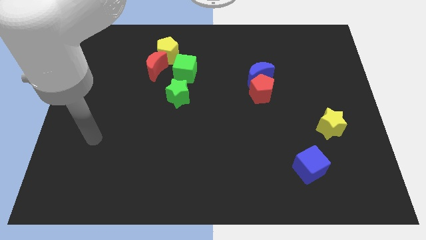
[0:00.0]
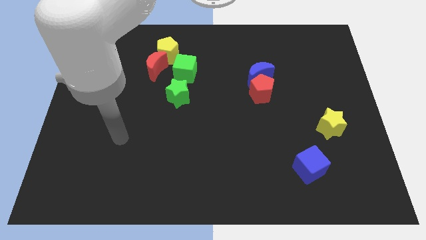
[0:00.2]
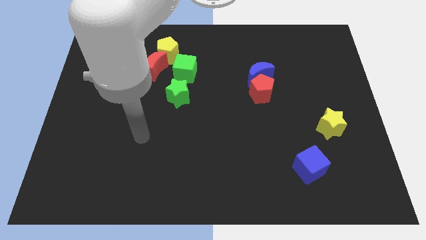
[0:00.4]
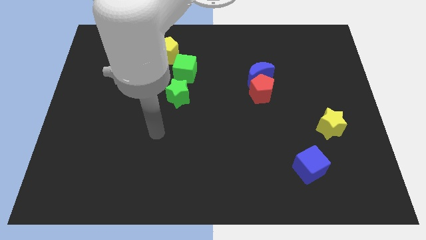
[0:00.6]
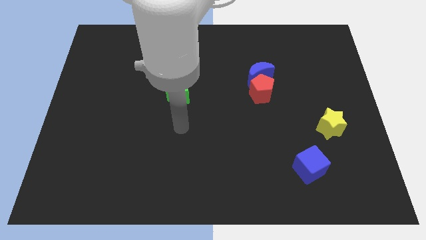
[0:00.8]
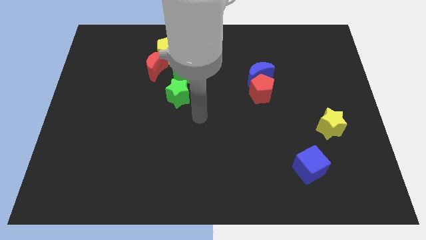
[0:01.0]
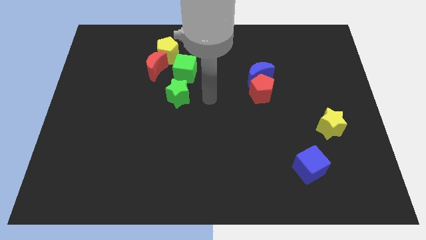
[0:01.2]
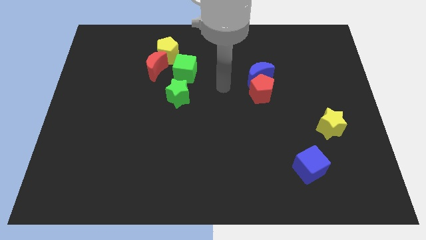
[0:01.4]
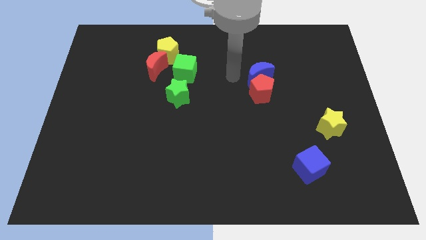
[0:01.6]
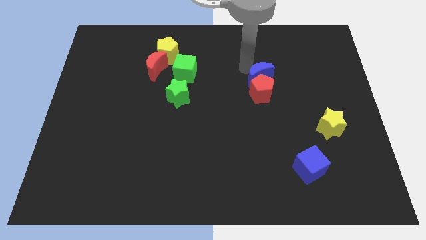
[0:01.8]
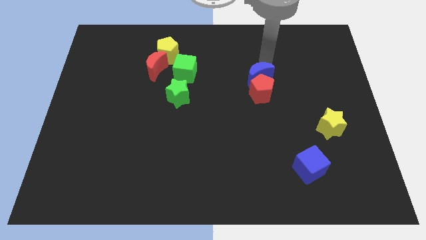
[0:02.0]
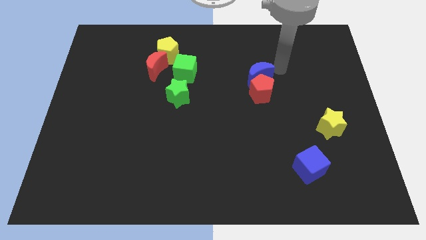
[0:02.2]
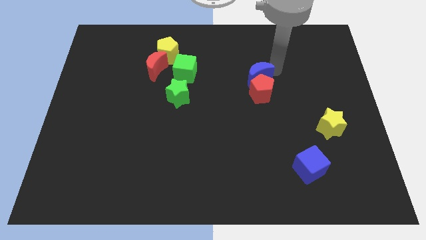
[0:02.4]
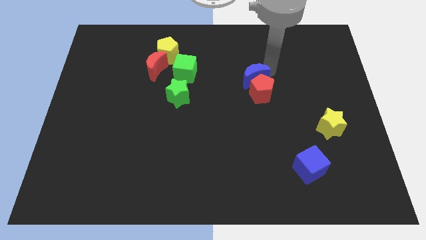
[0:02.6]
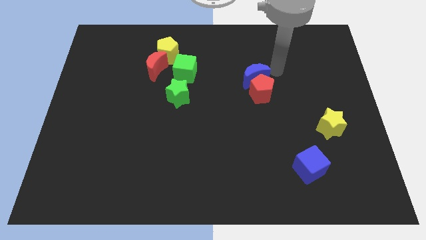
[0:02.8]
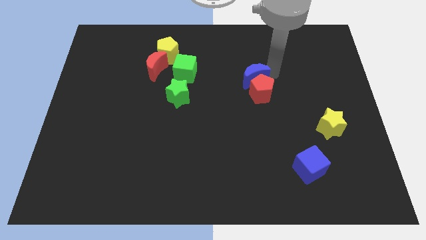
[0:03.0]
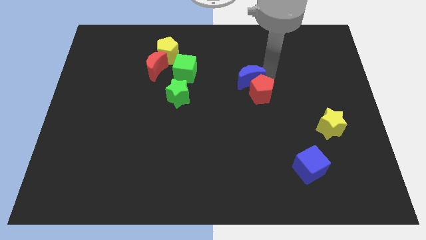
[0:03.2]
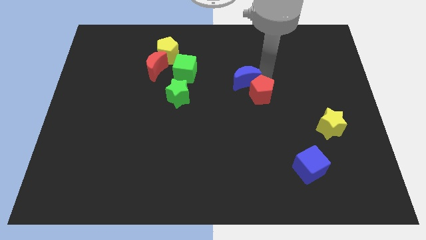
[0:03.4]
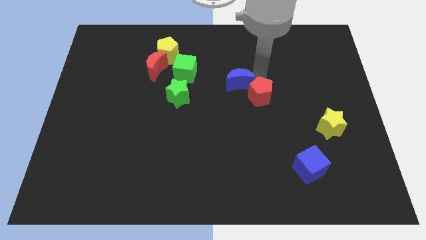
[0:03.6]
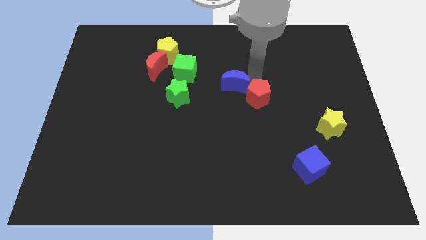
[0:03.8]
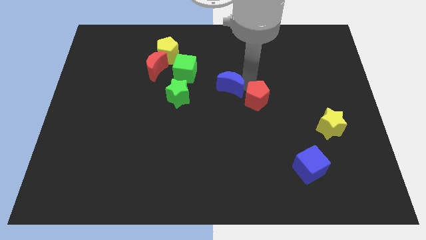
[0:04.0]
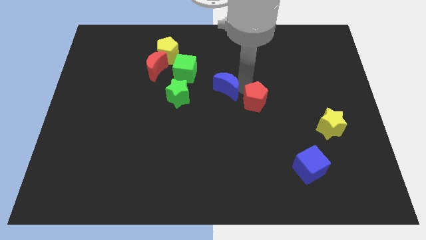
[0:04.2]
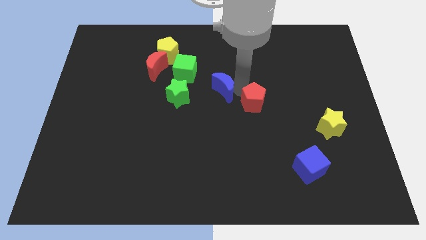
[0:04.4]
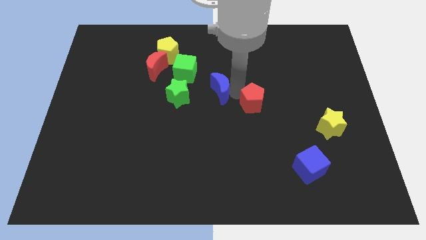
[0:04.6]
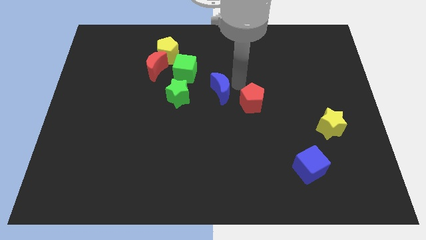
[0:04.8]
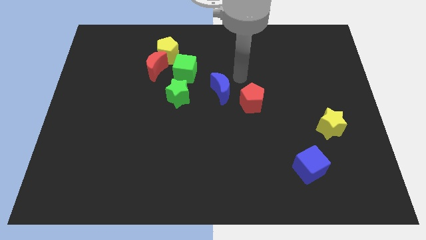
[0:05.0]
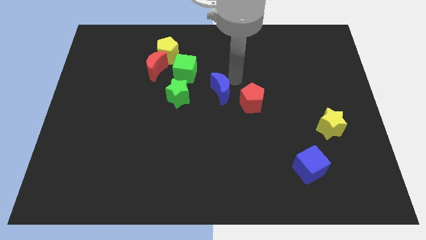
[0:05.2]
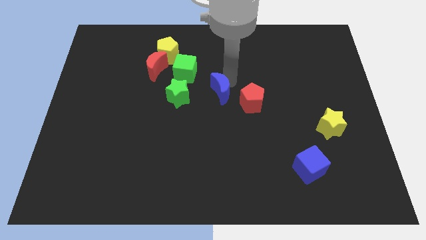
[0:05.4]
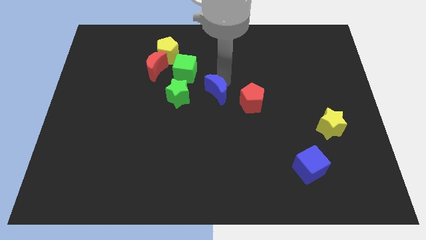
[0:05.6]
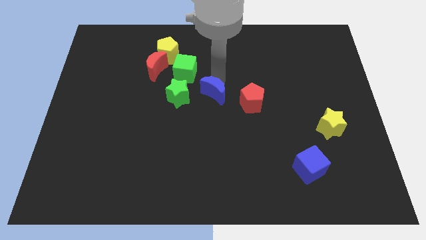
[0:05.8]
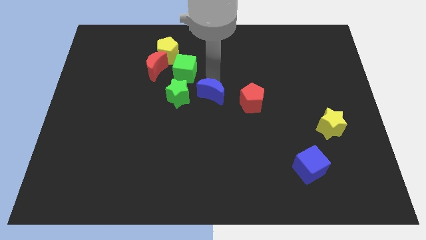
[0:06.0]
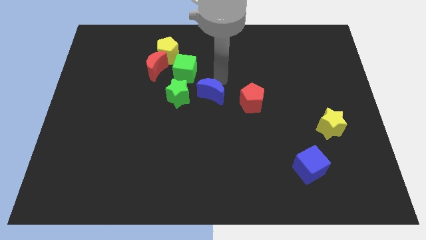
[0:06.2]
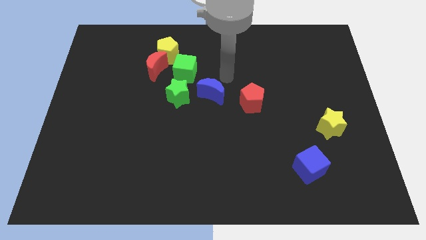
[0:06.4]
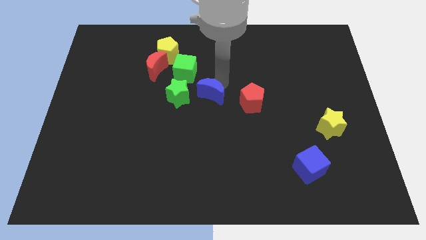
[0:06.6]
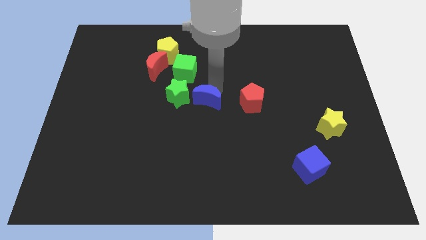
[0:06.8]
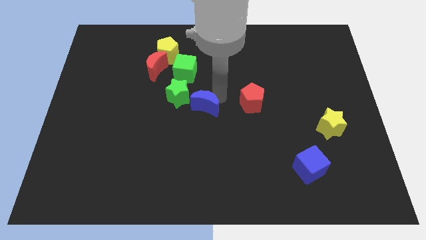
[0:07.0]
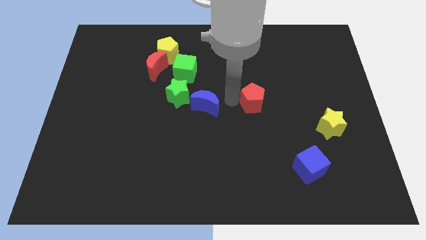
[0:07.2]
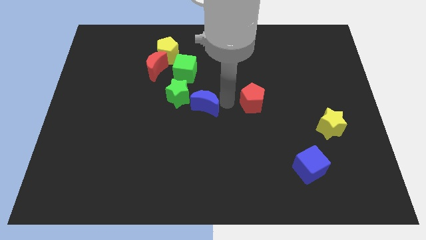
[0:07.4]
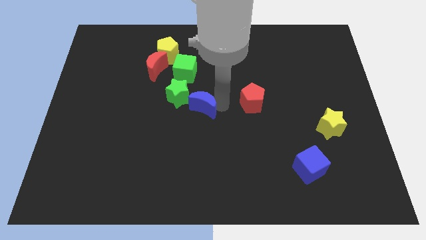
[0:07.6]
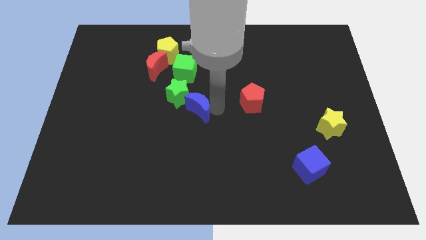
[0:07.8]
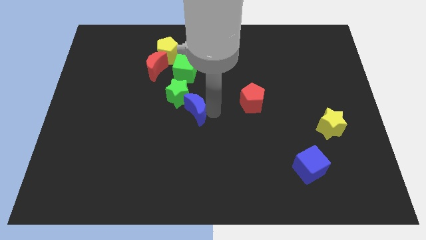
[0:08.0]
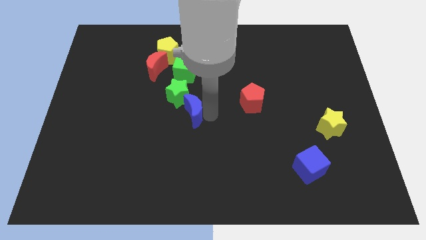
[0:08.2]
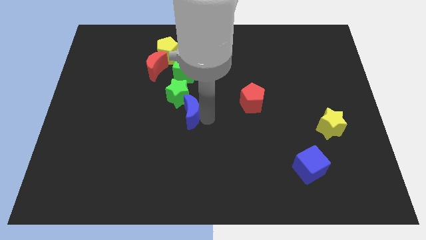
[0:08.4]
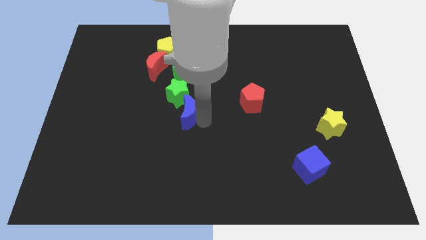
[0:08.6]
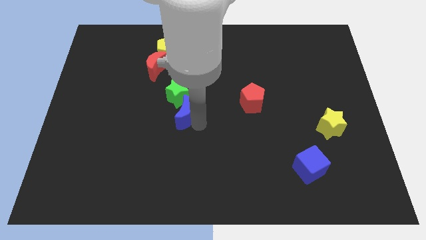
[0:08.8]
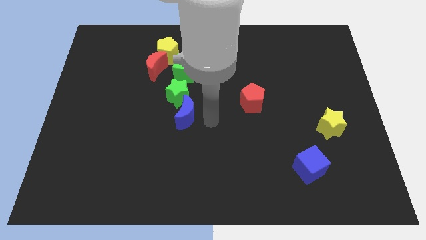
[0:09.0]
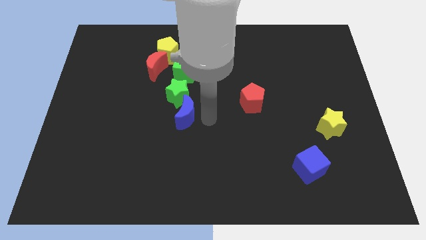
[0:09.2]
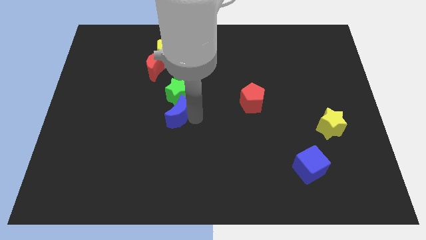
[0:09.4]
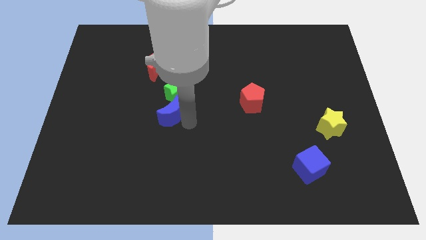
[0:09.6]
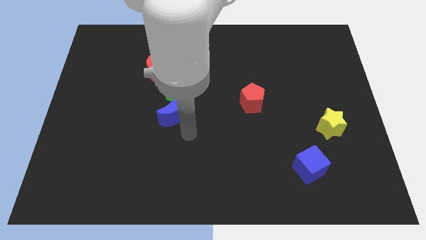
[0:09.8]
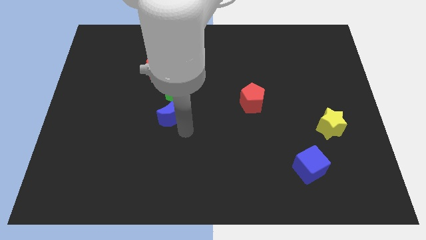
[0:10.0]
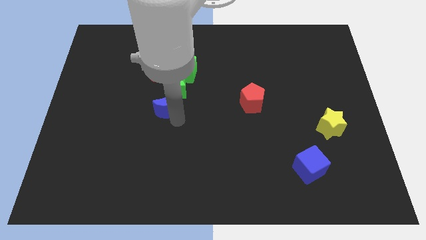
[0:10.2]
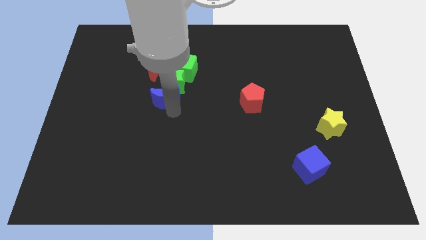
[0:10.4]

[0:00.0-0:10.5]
put the blue moon below the yellow pentagon

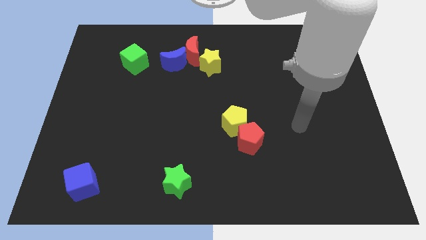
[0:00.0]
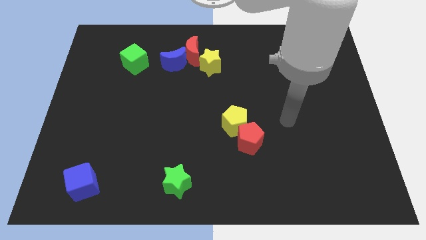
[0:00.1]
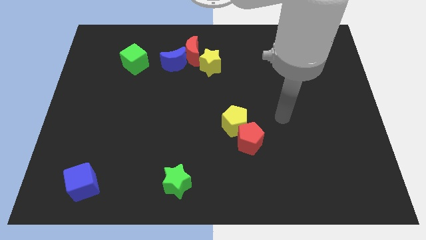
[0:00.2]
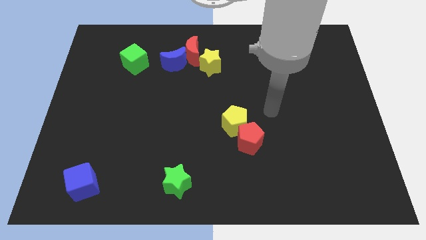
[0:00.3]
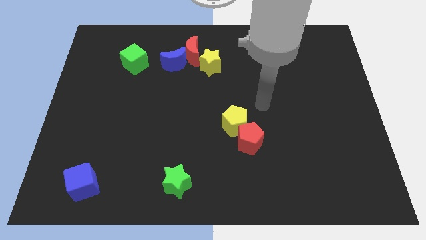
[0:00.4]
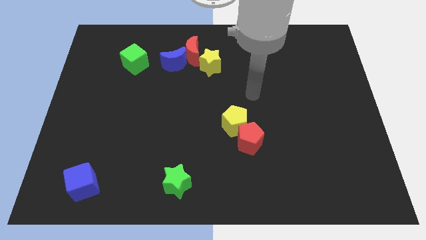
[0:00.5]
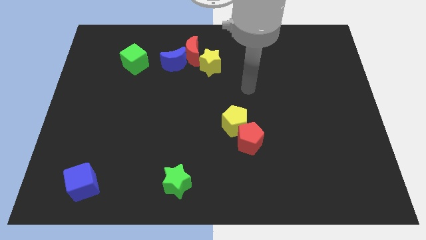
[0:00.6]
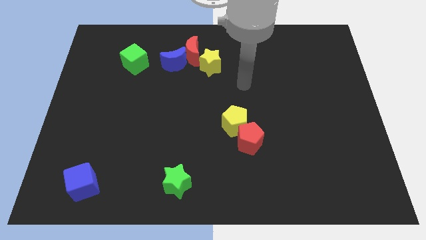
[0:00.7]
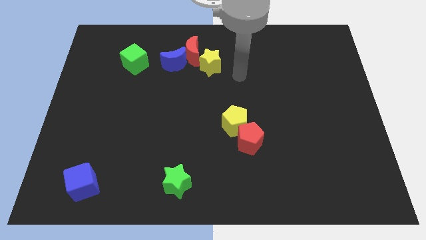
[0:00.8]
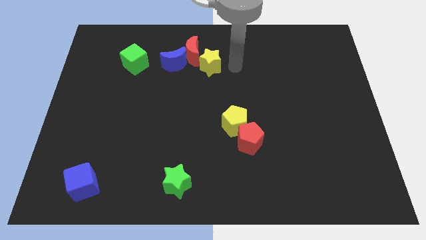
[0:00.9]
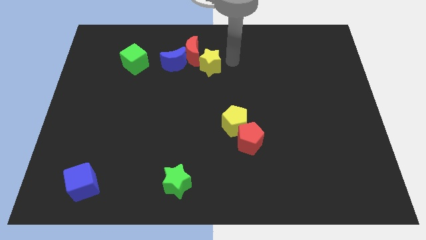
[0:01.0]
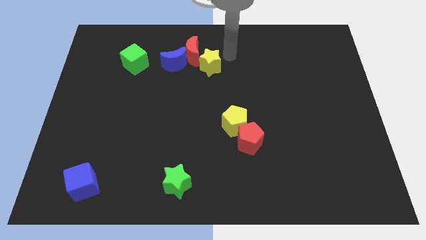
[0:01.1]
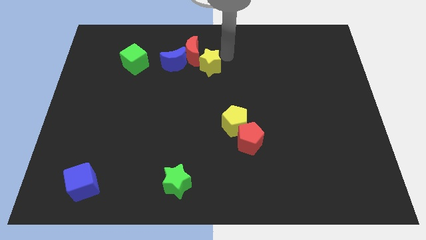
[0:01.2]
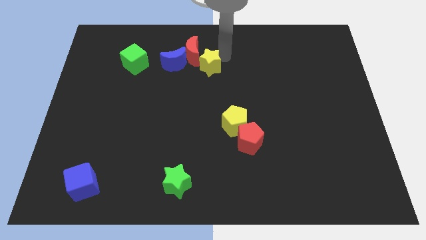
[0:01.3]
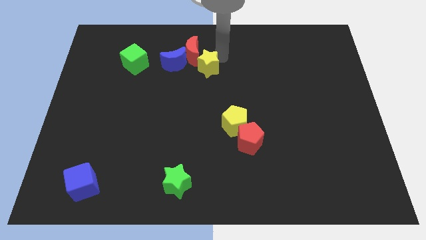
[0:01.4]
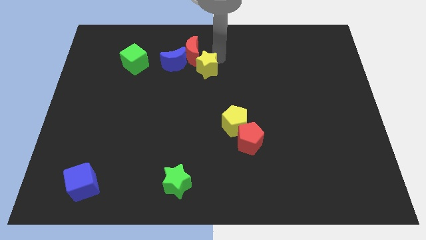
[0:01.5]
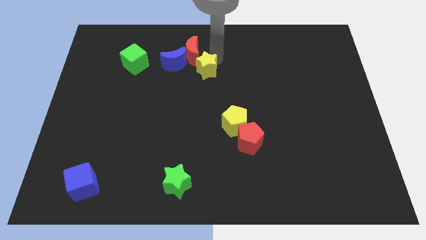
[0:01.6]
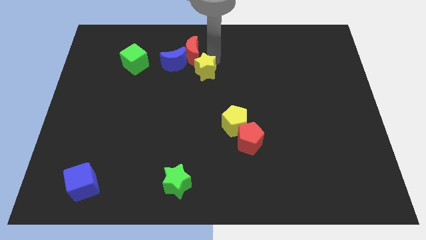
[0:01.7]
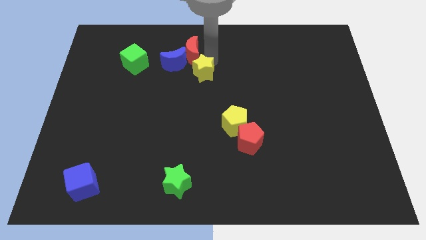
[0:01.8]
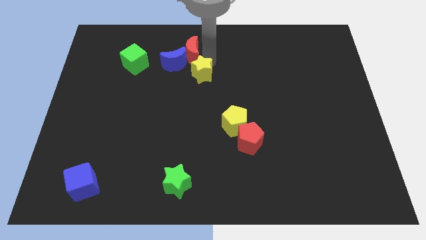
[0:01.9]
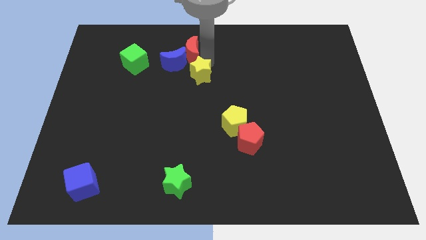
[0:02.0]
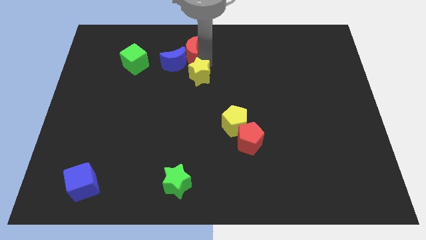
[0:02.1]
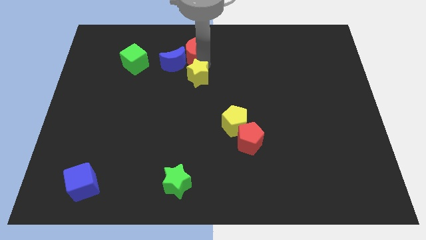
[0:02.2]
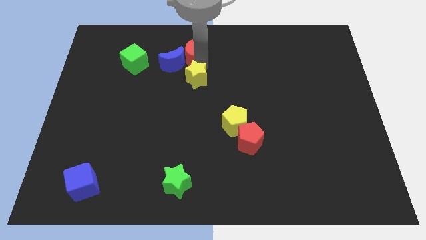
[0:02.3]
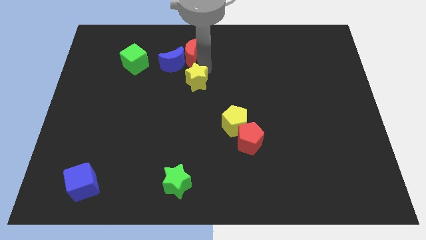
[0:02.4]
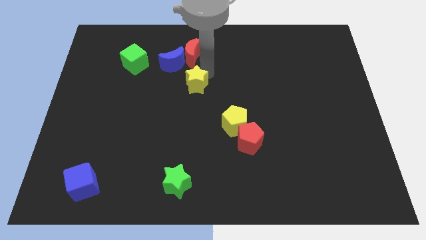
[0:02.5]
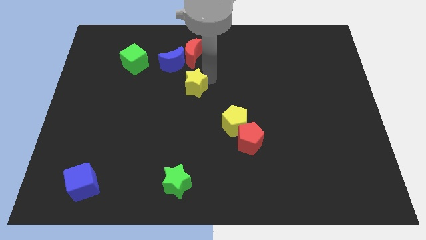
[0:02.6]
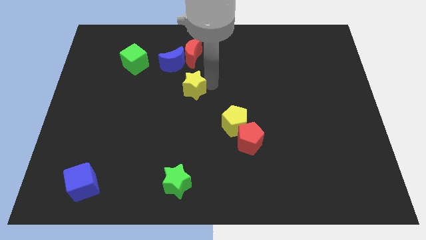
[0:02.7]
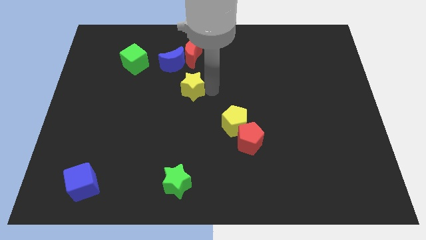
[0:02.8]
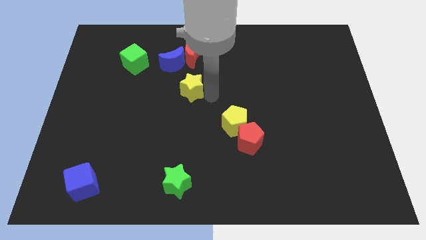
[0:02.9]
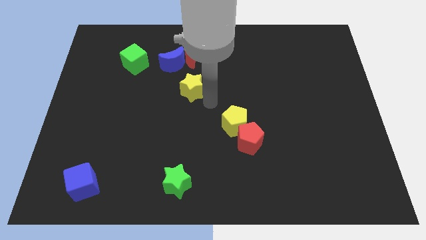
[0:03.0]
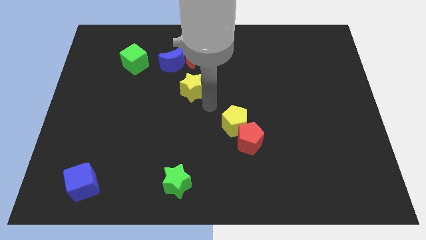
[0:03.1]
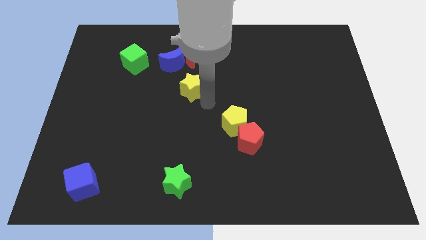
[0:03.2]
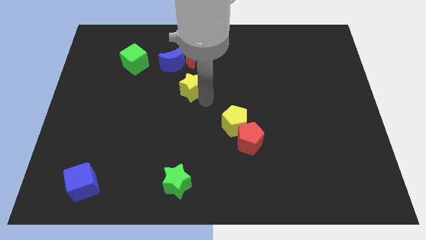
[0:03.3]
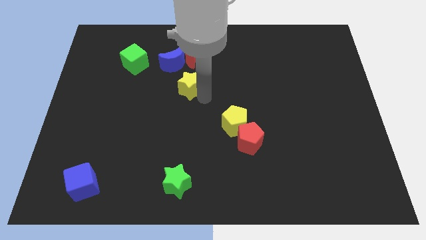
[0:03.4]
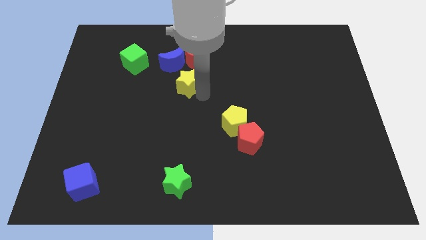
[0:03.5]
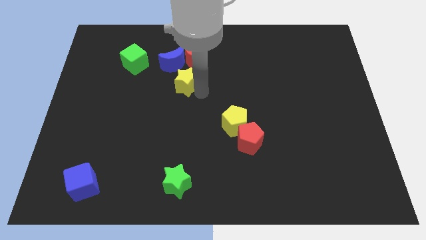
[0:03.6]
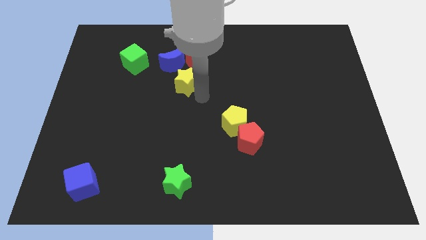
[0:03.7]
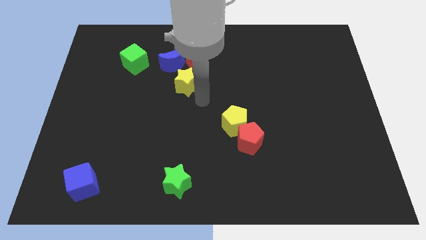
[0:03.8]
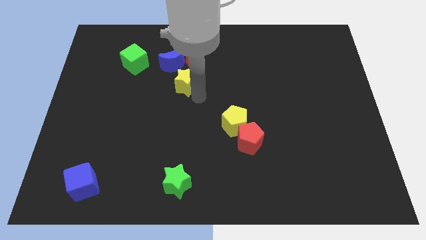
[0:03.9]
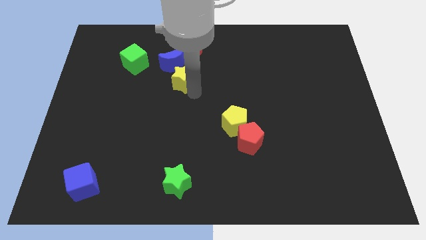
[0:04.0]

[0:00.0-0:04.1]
slide the yellow star to the bottom left side of the red moon
